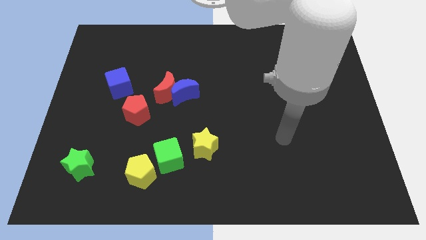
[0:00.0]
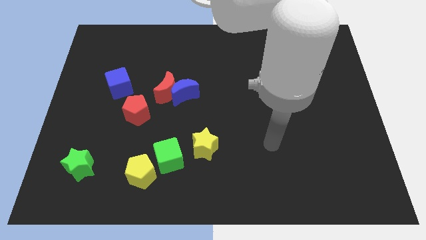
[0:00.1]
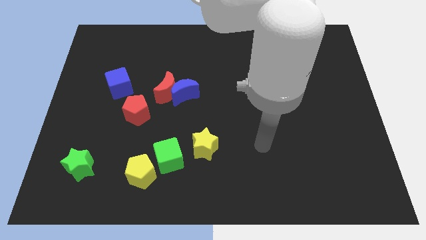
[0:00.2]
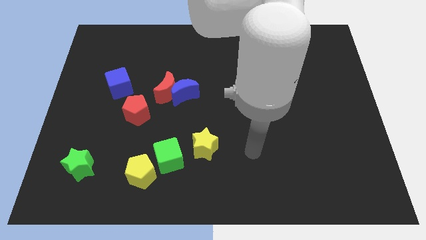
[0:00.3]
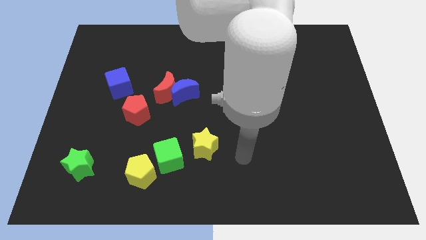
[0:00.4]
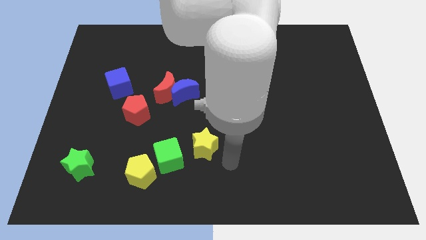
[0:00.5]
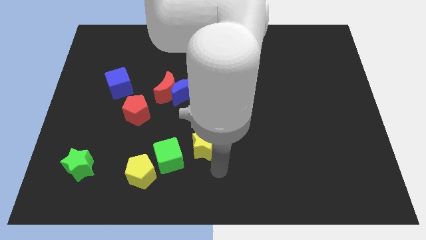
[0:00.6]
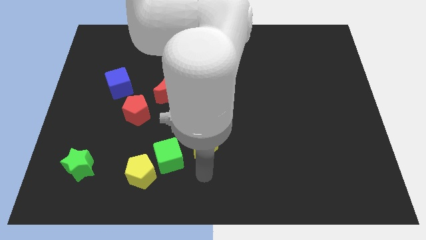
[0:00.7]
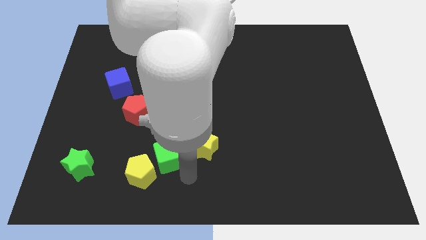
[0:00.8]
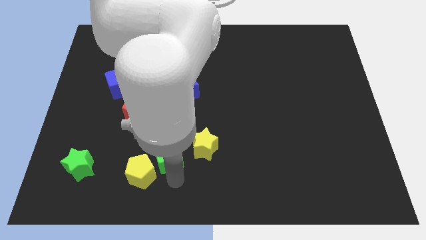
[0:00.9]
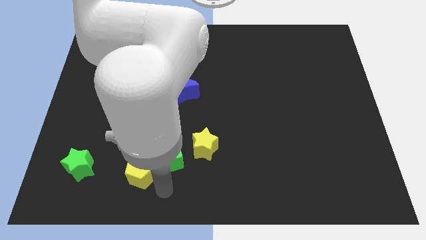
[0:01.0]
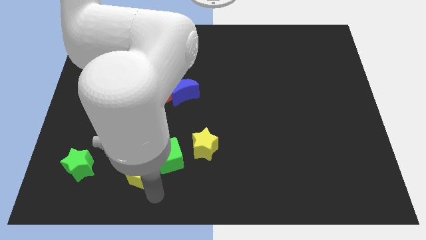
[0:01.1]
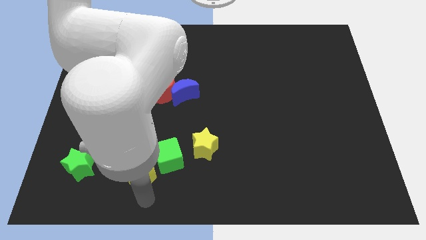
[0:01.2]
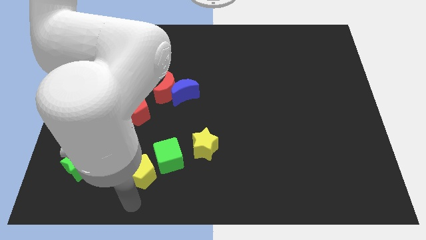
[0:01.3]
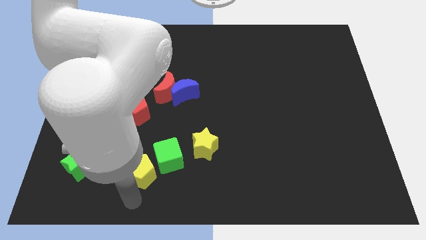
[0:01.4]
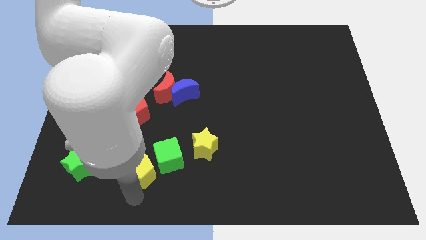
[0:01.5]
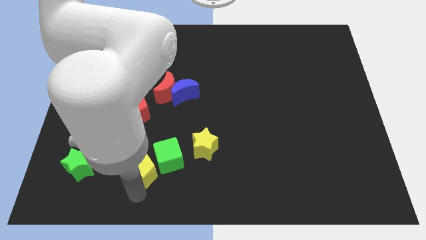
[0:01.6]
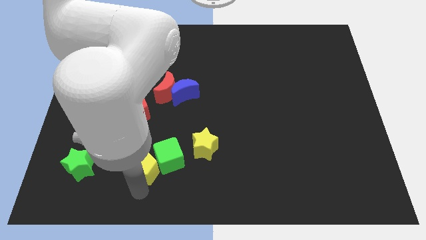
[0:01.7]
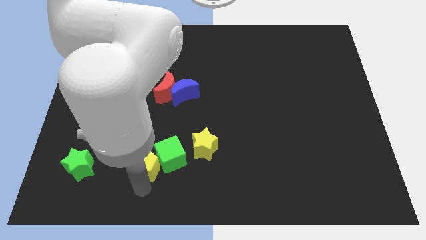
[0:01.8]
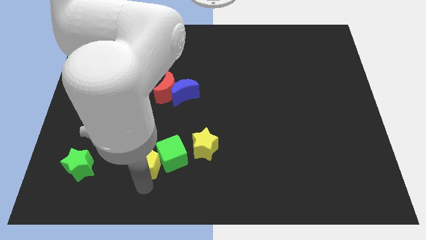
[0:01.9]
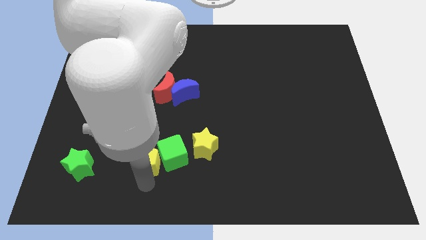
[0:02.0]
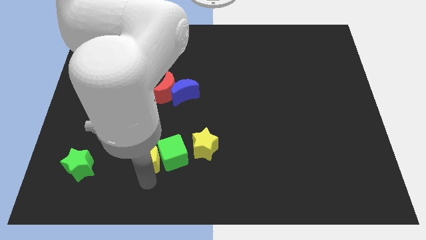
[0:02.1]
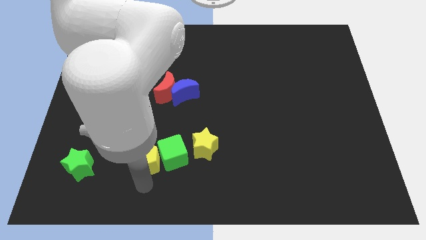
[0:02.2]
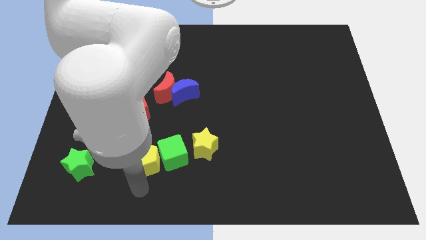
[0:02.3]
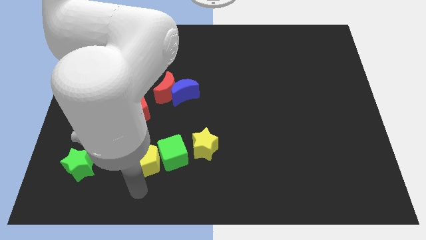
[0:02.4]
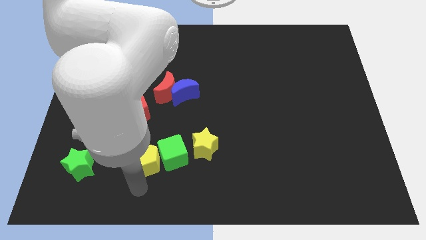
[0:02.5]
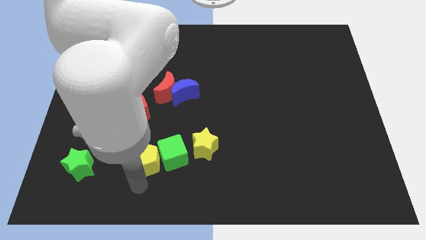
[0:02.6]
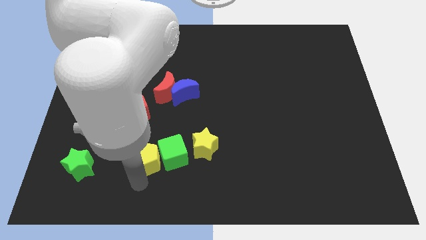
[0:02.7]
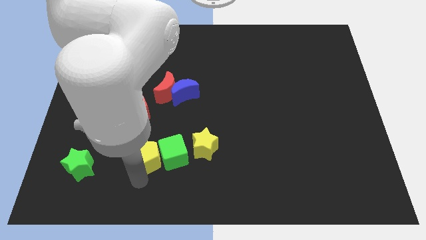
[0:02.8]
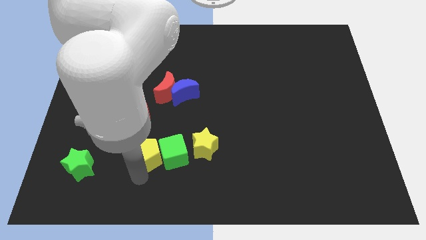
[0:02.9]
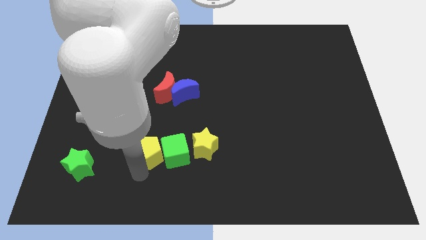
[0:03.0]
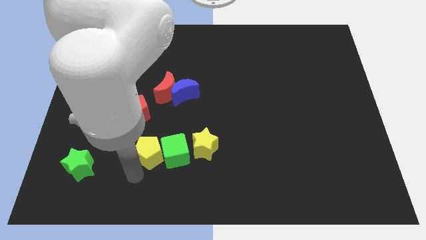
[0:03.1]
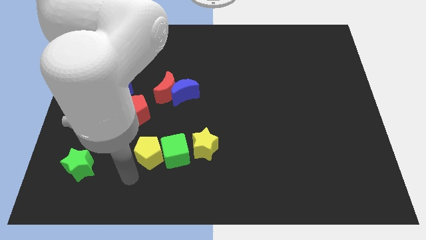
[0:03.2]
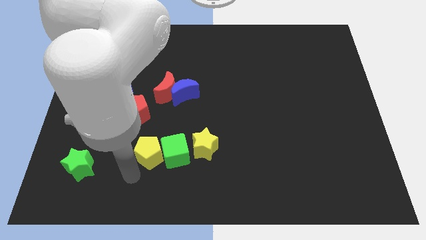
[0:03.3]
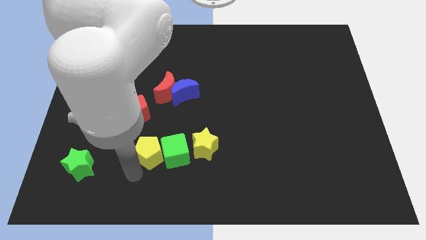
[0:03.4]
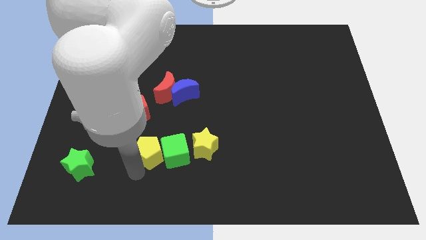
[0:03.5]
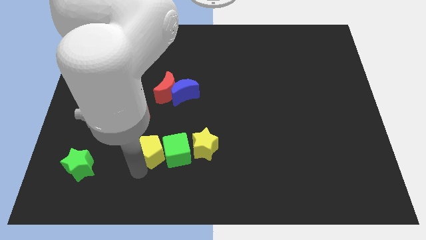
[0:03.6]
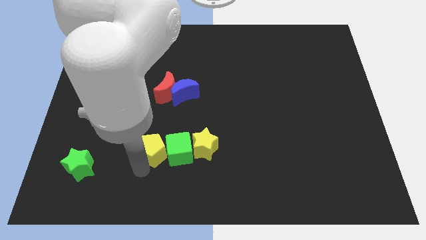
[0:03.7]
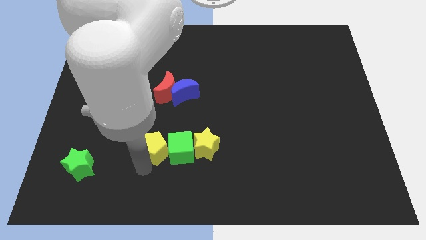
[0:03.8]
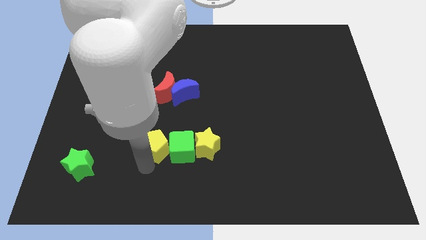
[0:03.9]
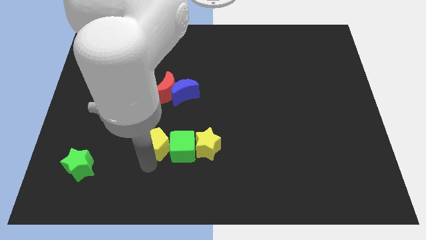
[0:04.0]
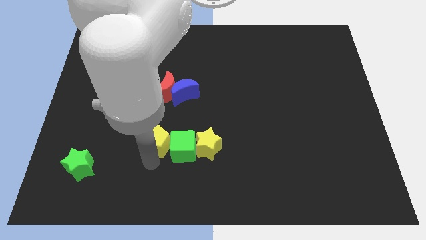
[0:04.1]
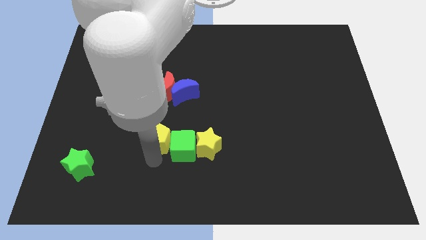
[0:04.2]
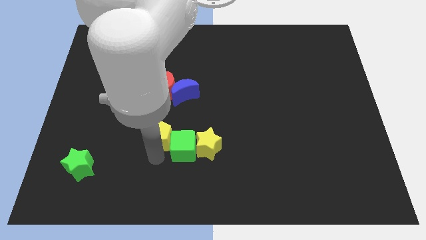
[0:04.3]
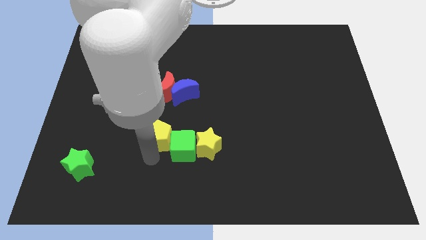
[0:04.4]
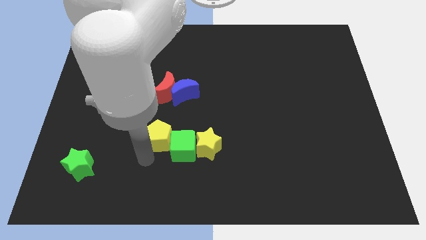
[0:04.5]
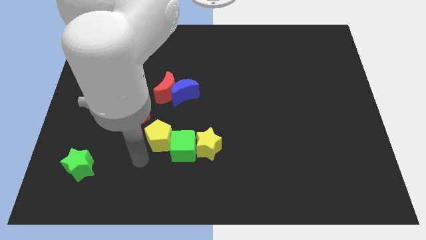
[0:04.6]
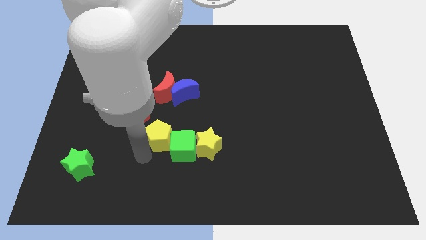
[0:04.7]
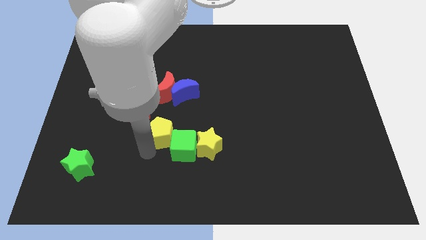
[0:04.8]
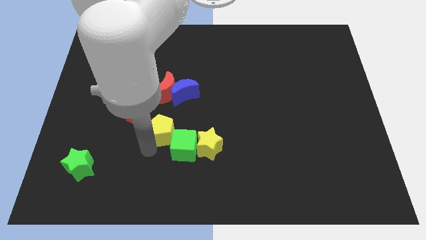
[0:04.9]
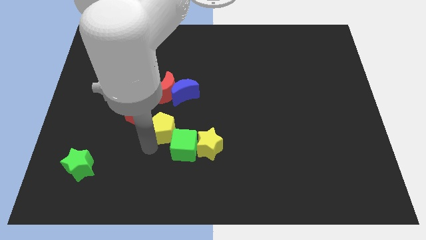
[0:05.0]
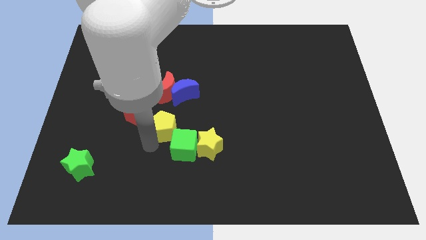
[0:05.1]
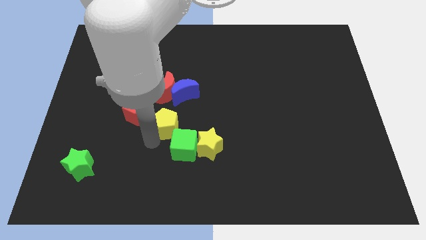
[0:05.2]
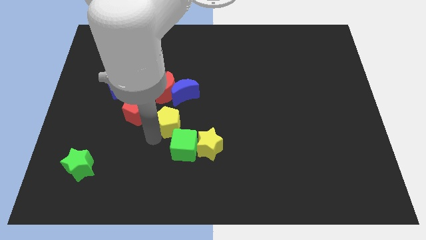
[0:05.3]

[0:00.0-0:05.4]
move the yellow pentagon to the center

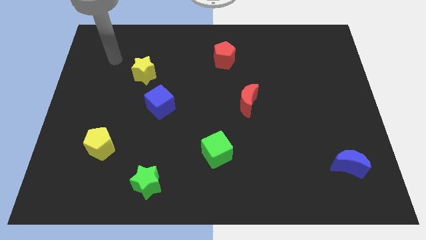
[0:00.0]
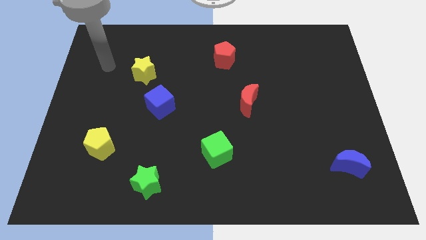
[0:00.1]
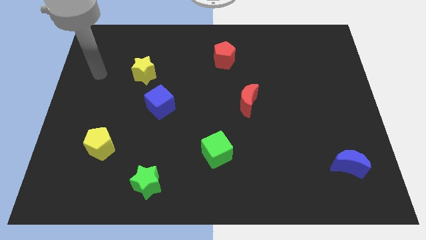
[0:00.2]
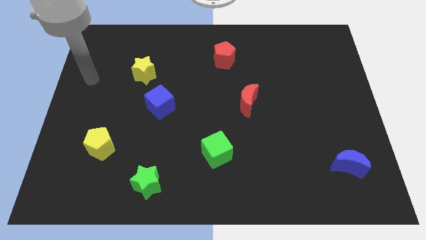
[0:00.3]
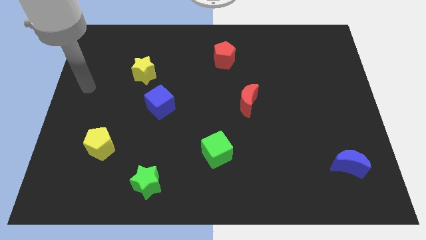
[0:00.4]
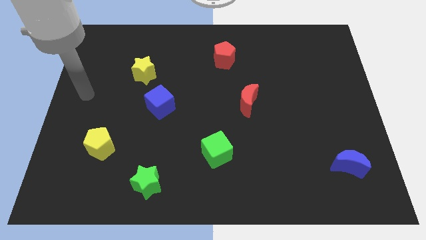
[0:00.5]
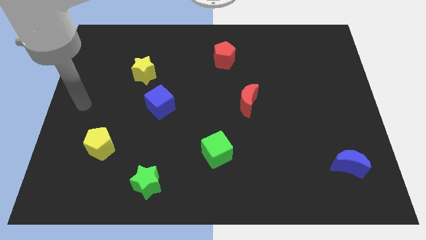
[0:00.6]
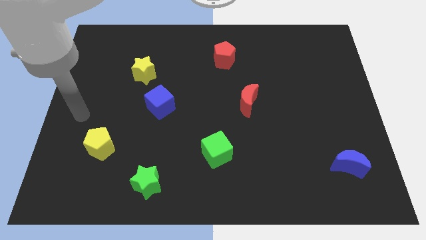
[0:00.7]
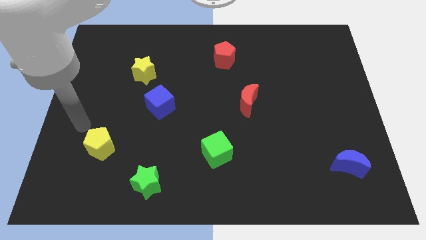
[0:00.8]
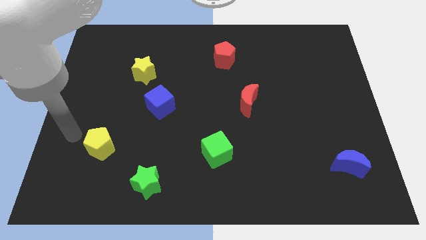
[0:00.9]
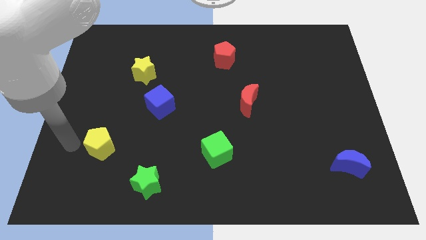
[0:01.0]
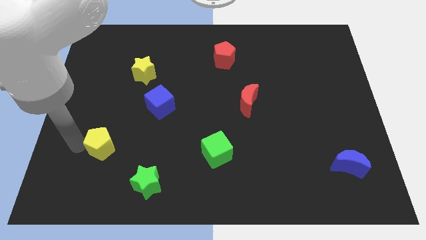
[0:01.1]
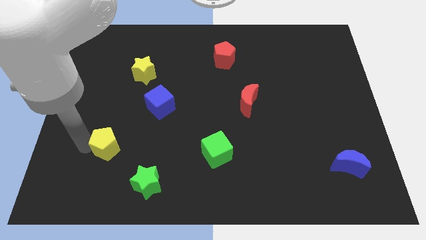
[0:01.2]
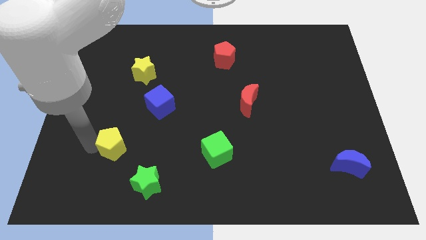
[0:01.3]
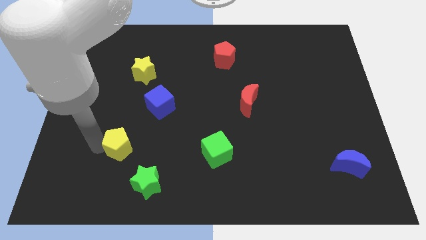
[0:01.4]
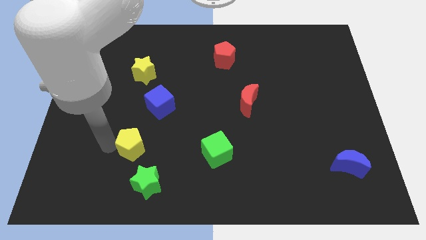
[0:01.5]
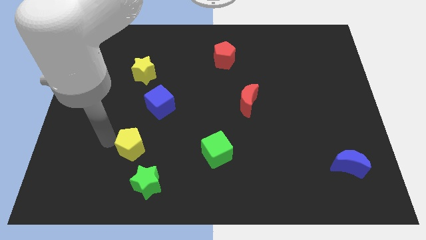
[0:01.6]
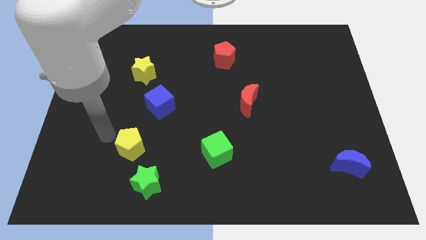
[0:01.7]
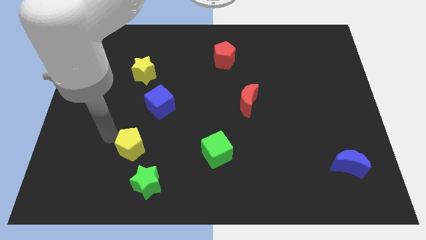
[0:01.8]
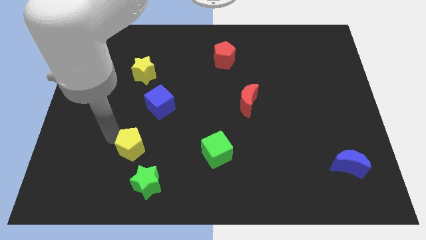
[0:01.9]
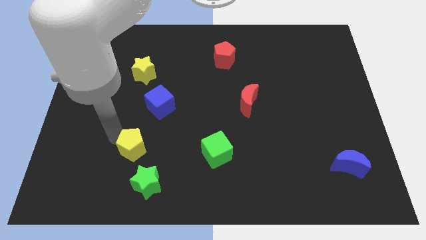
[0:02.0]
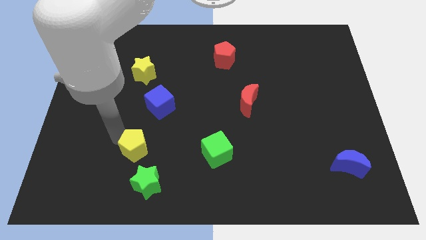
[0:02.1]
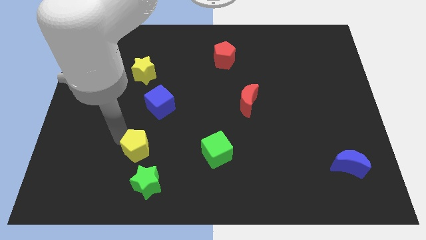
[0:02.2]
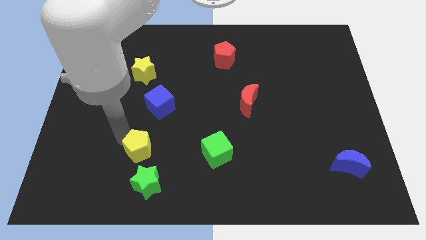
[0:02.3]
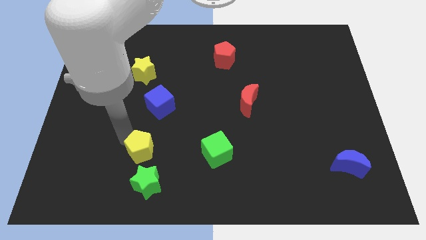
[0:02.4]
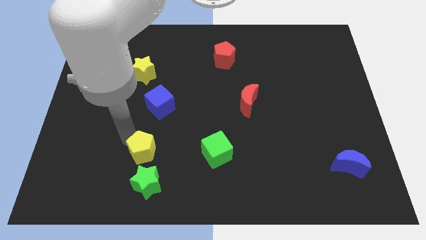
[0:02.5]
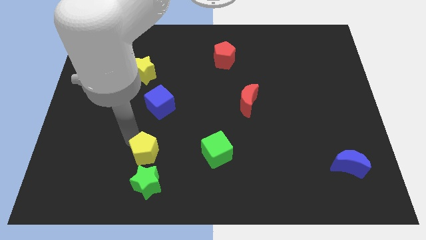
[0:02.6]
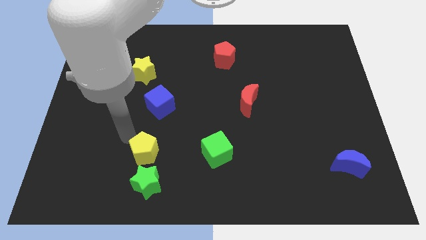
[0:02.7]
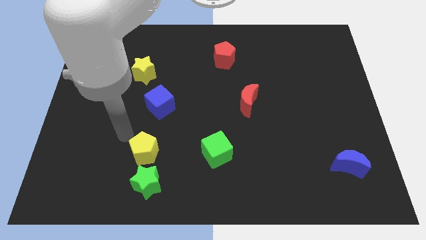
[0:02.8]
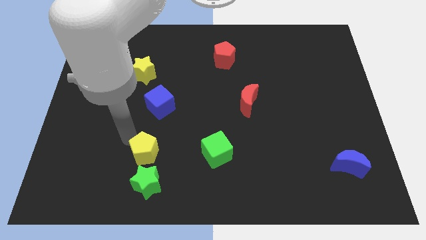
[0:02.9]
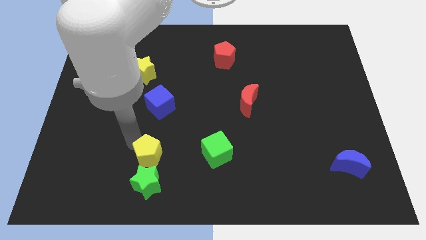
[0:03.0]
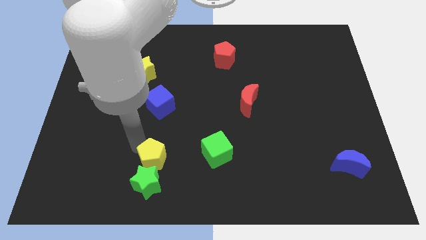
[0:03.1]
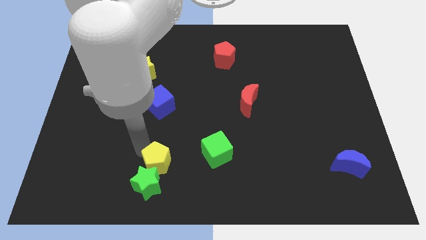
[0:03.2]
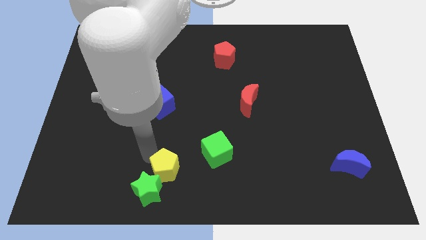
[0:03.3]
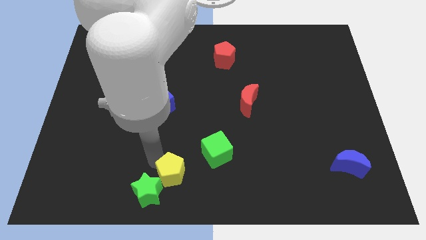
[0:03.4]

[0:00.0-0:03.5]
push the yellow pentagon to the bottom
